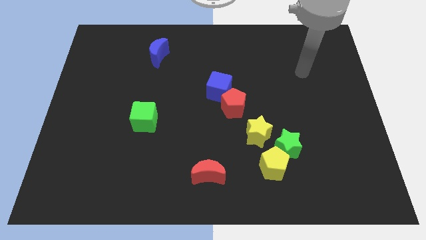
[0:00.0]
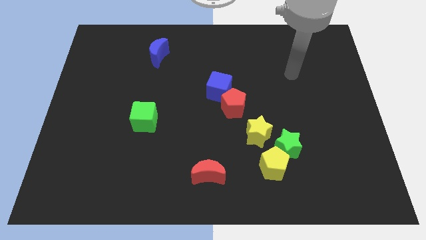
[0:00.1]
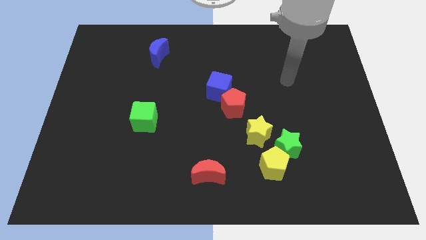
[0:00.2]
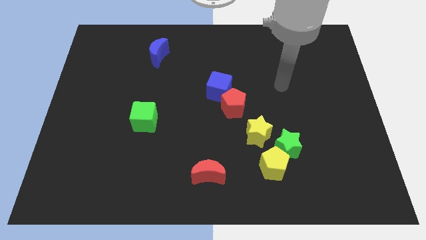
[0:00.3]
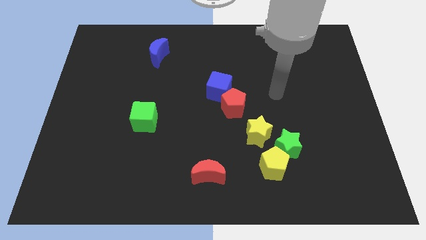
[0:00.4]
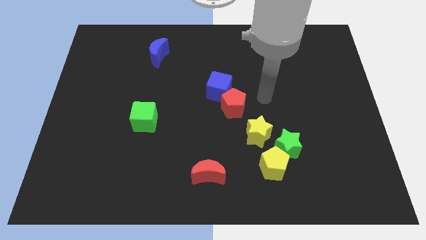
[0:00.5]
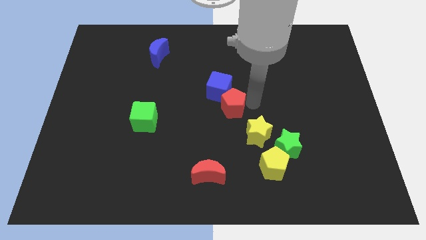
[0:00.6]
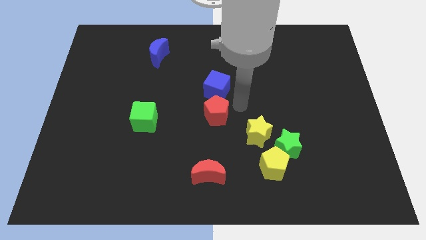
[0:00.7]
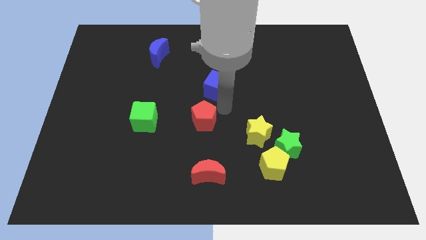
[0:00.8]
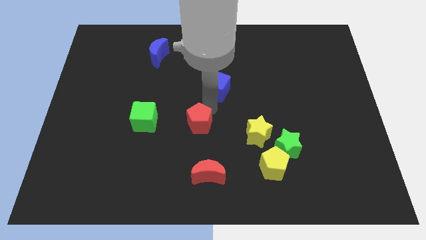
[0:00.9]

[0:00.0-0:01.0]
pull the blue cube apart from the red pentagon

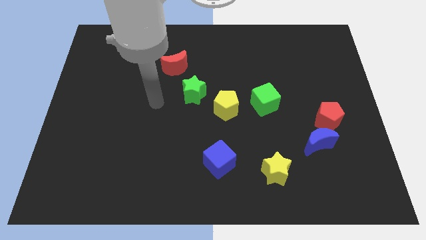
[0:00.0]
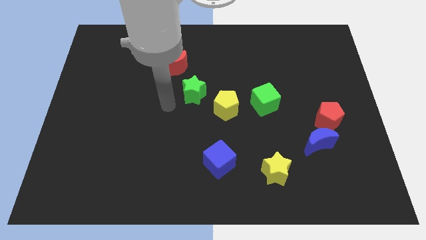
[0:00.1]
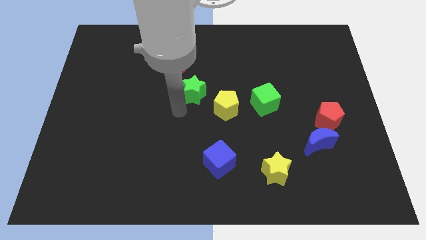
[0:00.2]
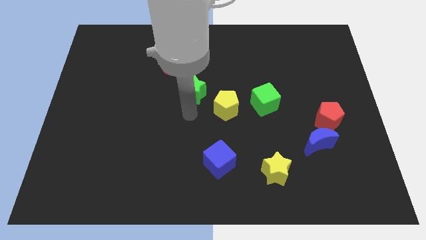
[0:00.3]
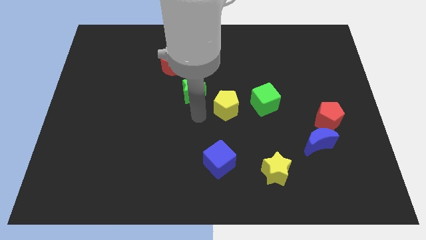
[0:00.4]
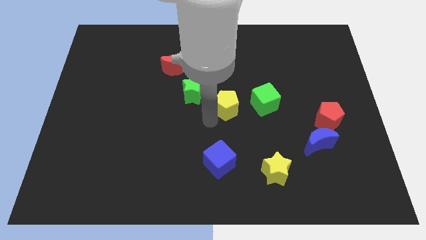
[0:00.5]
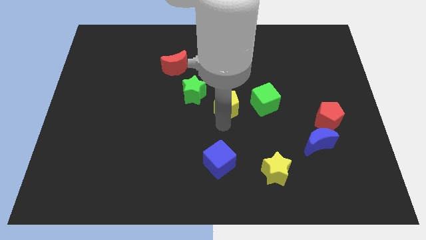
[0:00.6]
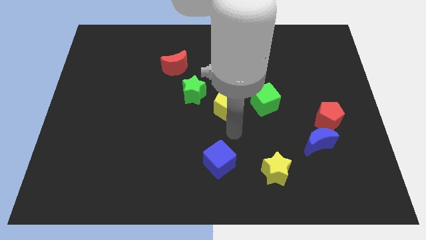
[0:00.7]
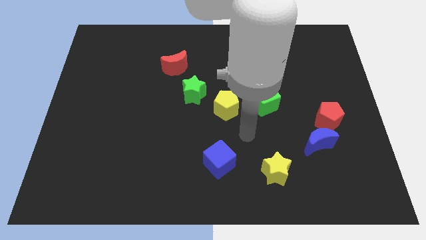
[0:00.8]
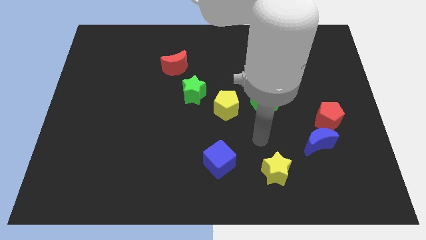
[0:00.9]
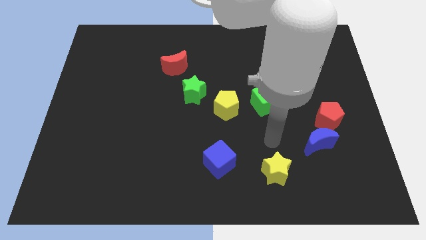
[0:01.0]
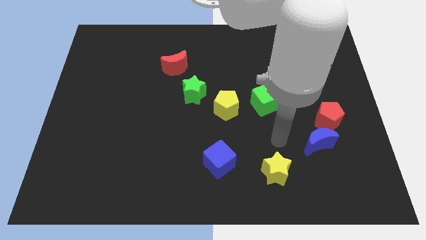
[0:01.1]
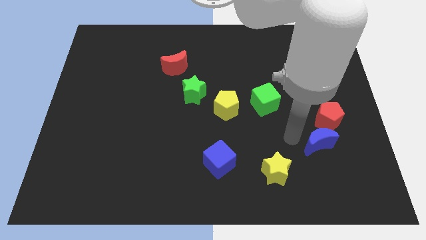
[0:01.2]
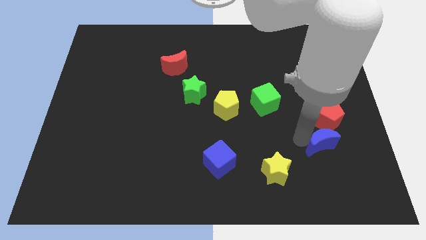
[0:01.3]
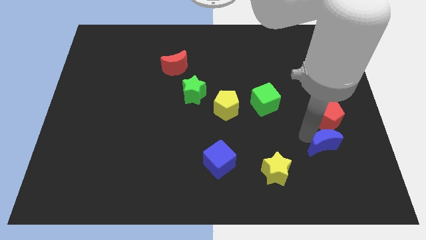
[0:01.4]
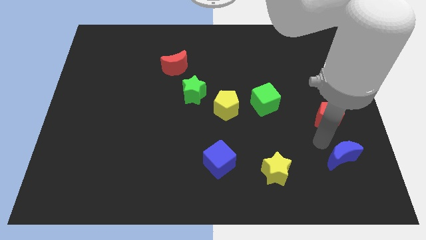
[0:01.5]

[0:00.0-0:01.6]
move the red pentagon away from the blue moon

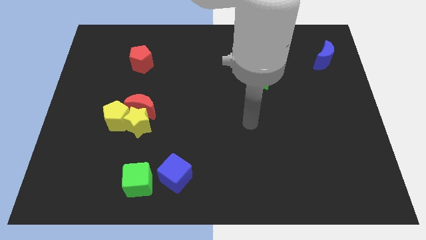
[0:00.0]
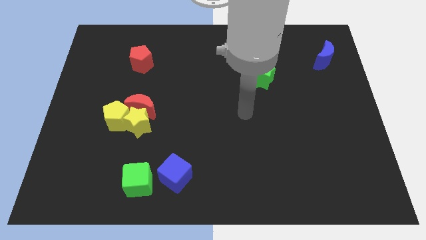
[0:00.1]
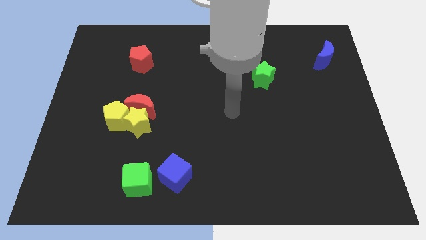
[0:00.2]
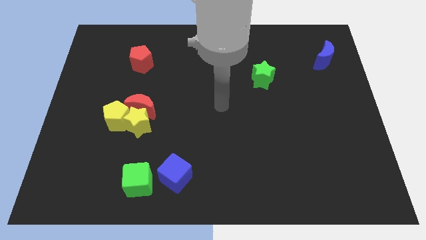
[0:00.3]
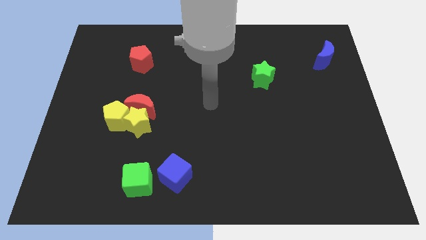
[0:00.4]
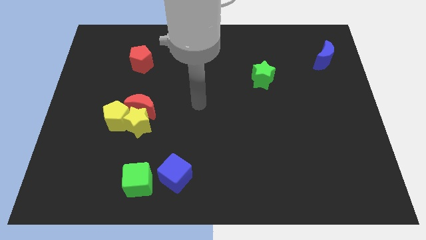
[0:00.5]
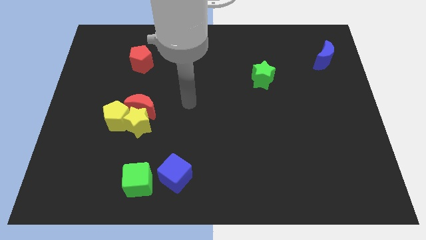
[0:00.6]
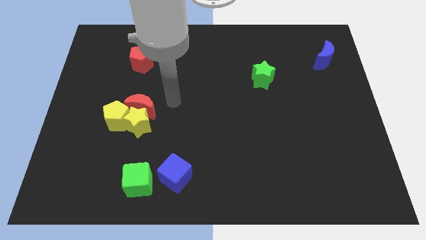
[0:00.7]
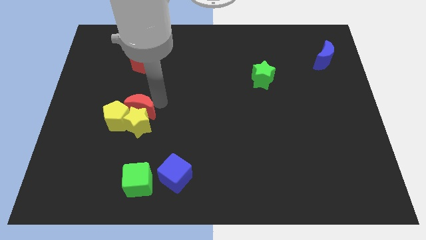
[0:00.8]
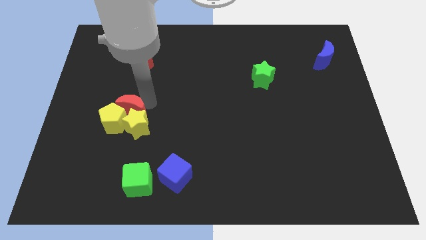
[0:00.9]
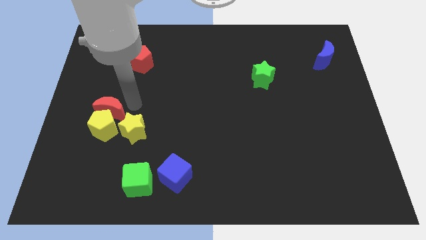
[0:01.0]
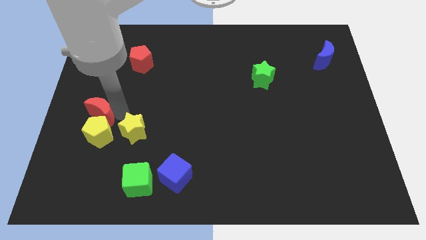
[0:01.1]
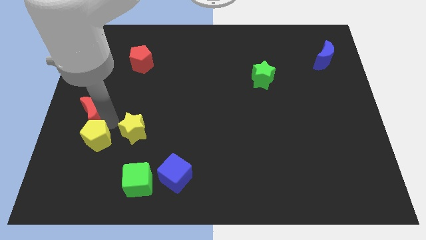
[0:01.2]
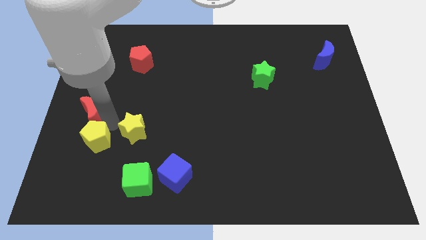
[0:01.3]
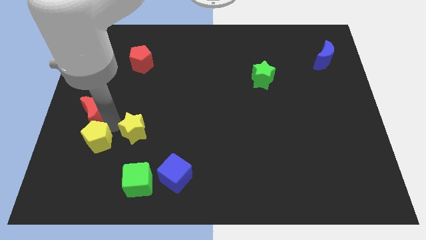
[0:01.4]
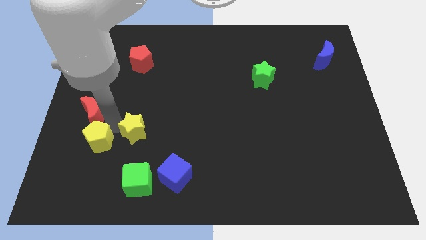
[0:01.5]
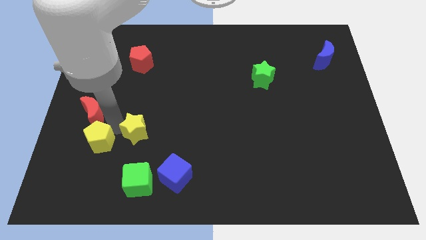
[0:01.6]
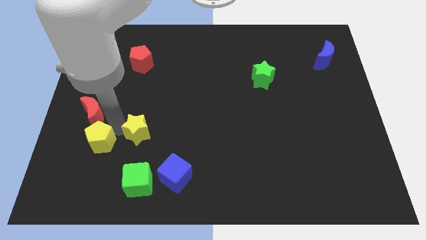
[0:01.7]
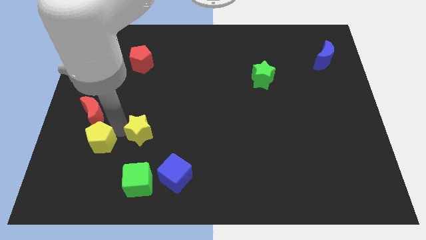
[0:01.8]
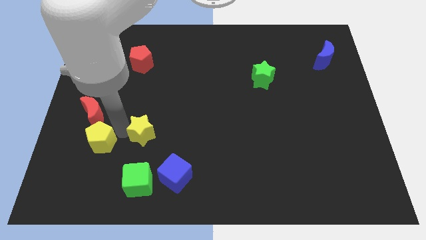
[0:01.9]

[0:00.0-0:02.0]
separate the yellow star from the red moon and yellow pentagon

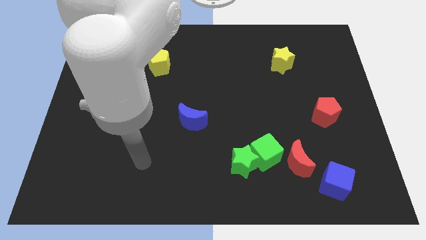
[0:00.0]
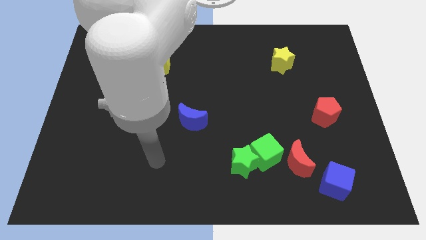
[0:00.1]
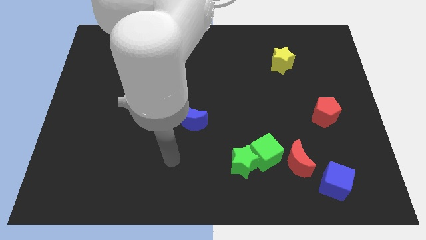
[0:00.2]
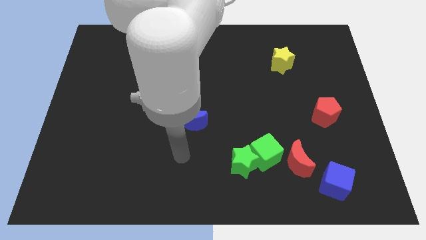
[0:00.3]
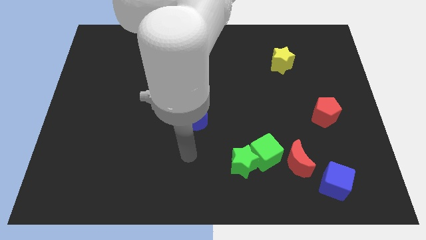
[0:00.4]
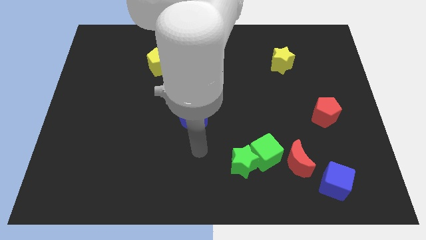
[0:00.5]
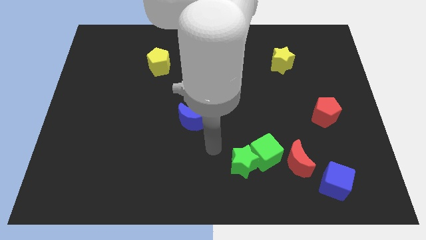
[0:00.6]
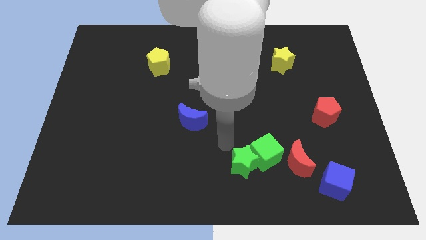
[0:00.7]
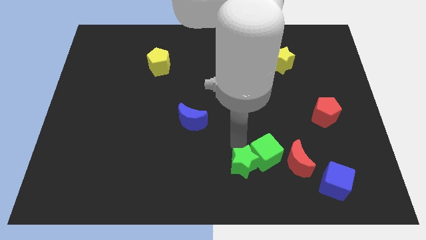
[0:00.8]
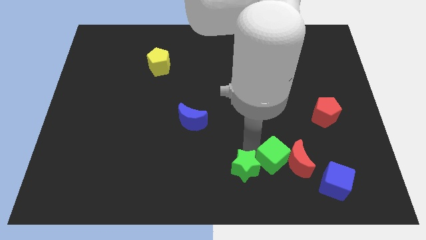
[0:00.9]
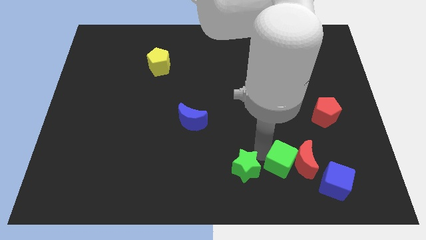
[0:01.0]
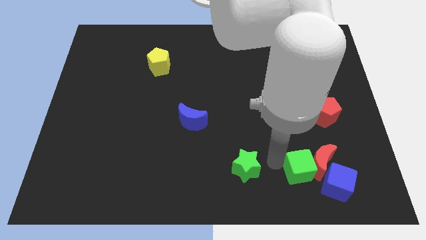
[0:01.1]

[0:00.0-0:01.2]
move the green star away from the green cube

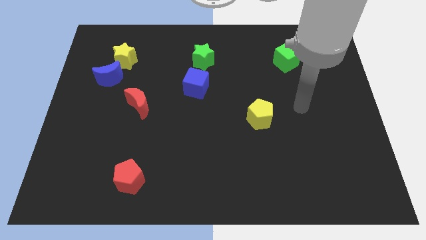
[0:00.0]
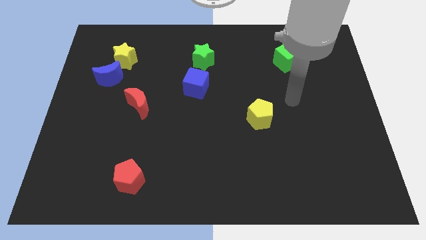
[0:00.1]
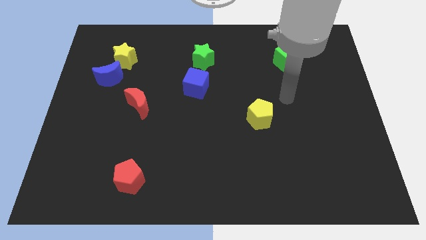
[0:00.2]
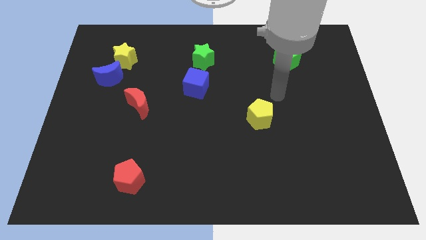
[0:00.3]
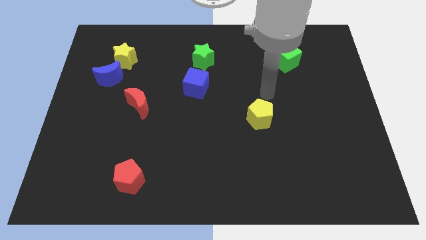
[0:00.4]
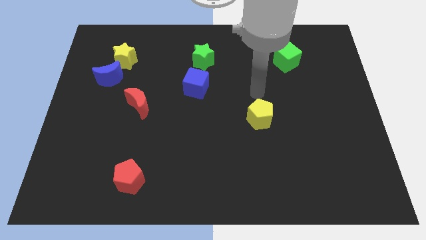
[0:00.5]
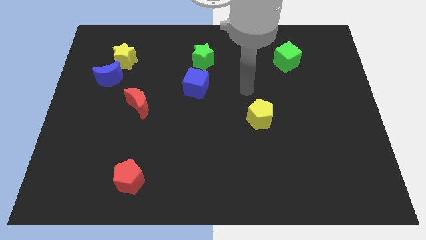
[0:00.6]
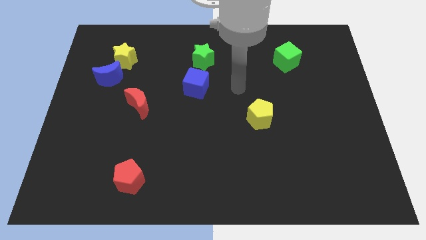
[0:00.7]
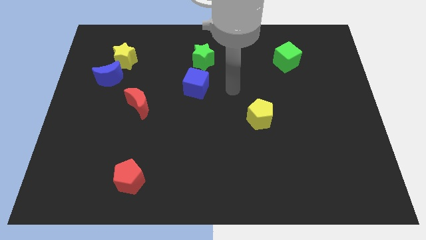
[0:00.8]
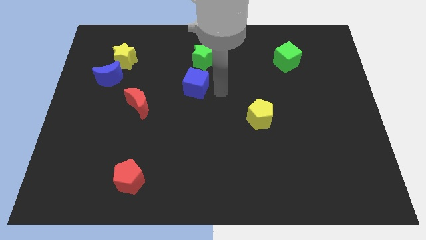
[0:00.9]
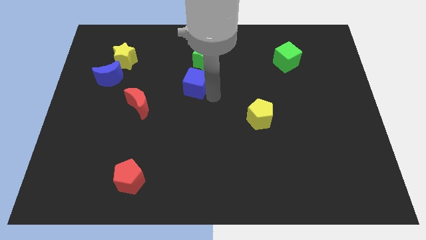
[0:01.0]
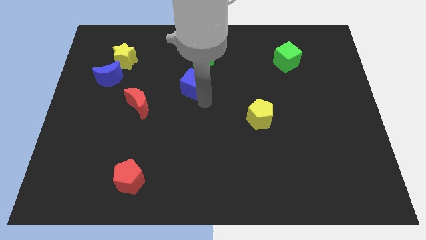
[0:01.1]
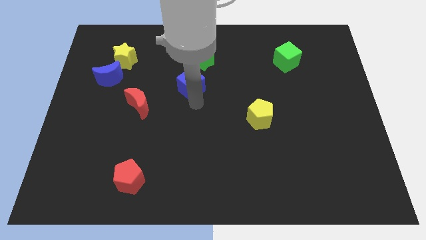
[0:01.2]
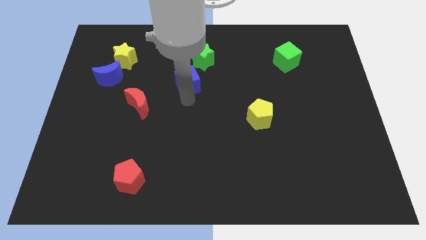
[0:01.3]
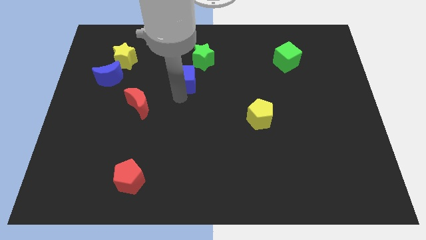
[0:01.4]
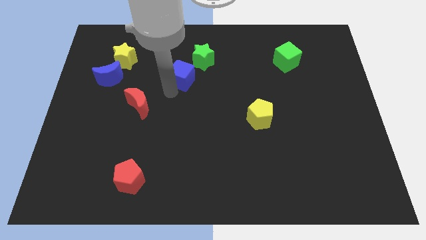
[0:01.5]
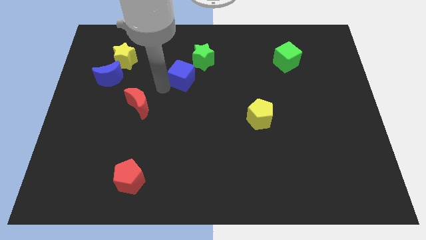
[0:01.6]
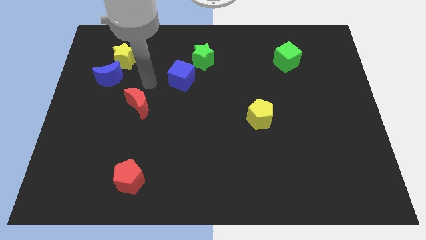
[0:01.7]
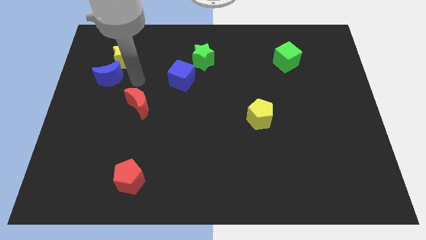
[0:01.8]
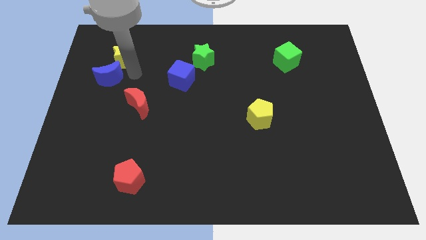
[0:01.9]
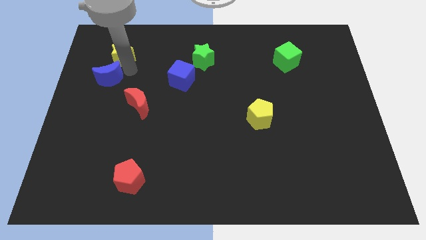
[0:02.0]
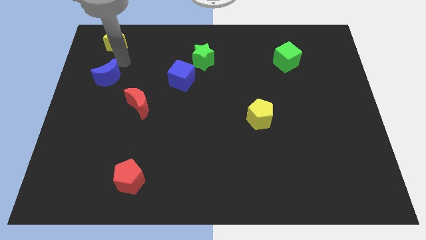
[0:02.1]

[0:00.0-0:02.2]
move the blue moon away from the yellow star

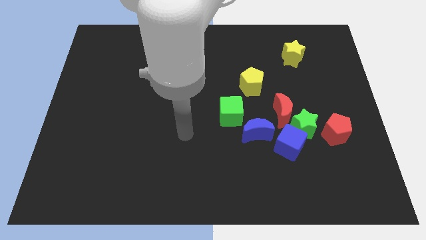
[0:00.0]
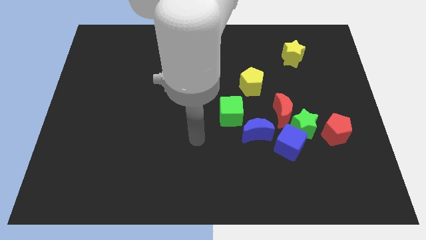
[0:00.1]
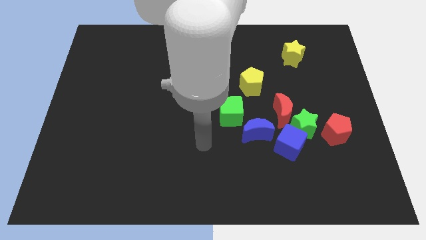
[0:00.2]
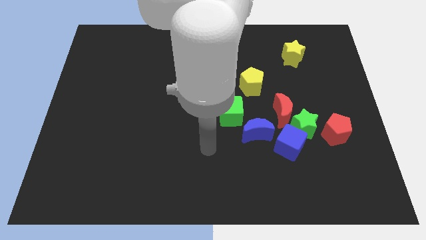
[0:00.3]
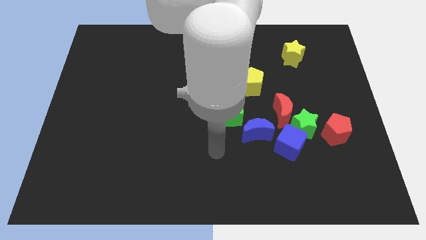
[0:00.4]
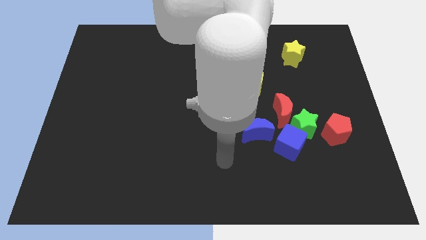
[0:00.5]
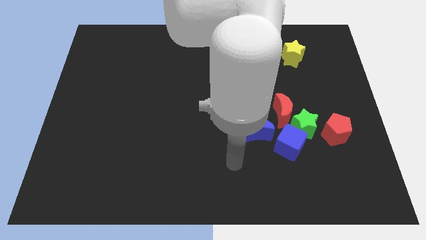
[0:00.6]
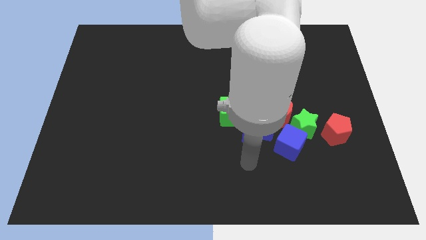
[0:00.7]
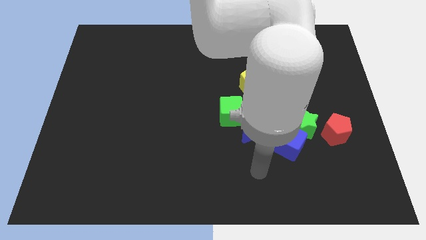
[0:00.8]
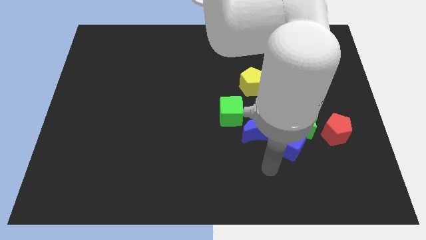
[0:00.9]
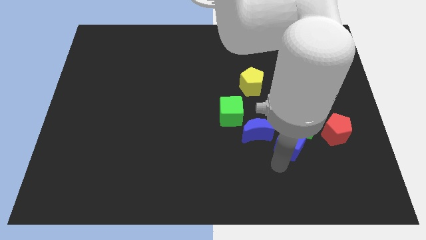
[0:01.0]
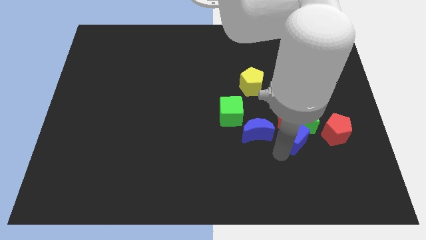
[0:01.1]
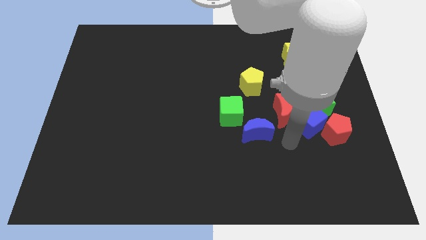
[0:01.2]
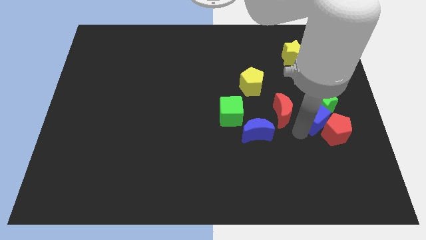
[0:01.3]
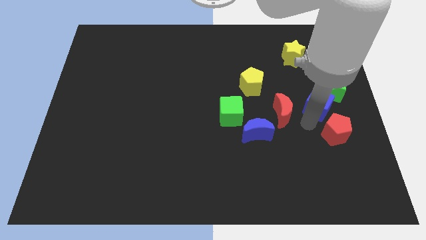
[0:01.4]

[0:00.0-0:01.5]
separate the green star from the blue cube, red moon, and red pentagon
